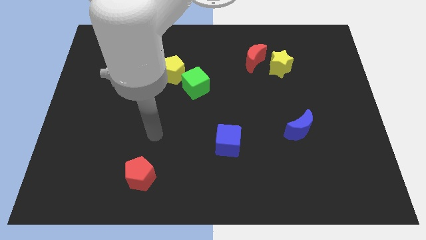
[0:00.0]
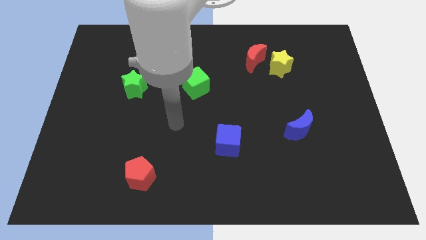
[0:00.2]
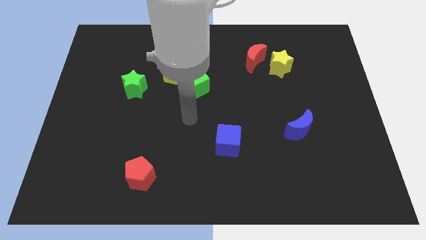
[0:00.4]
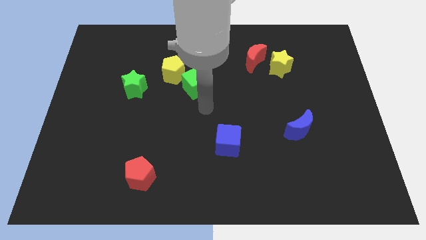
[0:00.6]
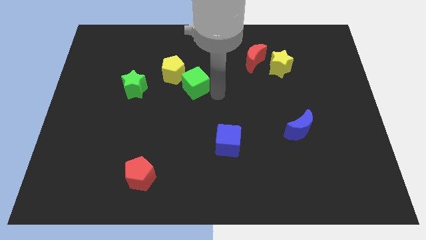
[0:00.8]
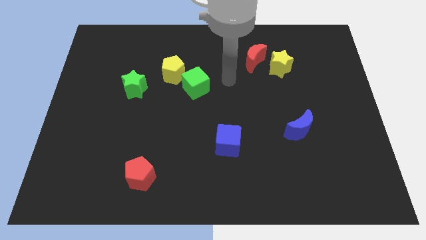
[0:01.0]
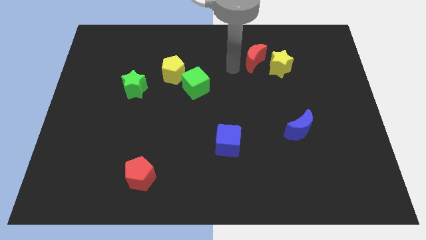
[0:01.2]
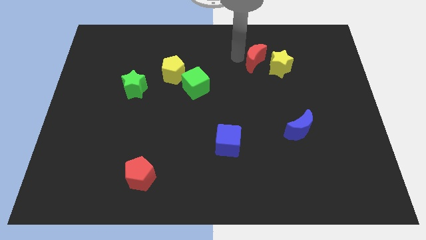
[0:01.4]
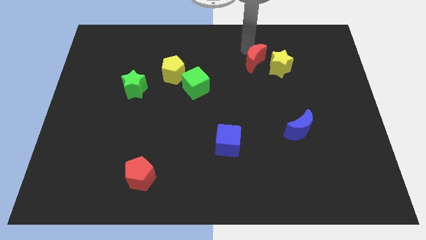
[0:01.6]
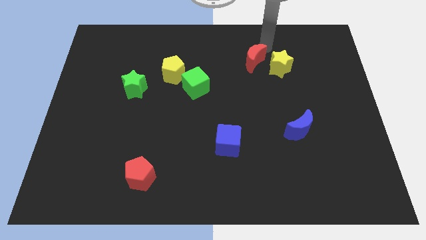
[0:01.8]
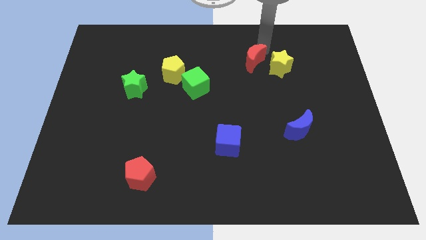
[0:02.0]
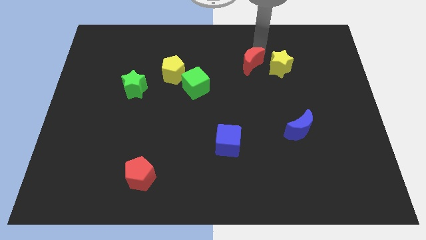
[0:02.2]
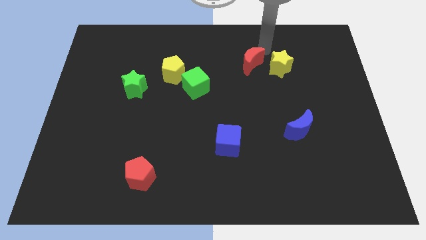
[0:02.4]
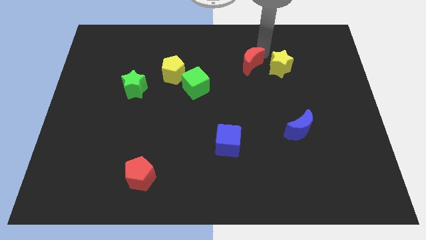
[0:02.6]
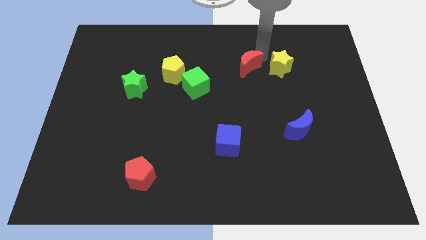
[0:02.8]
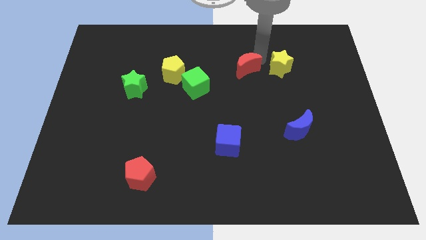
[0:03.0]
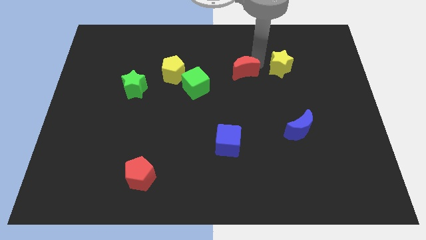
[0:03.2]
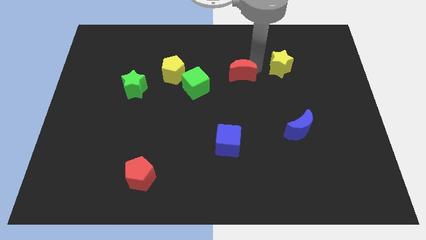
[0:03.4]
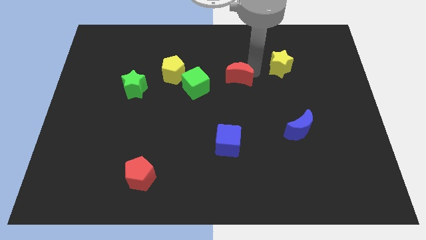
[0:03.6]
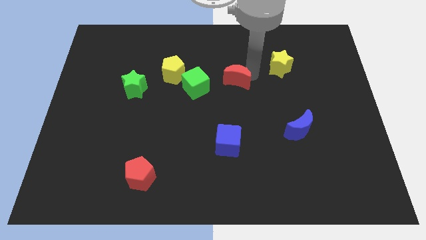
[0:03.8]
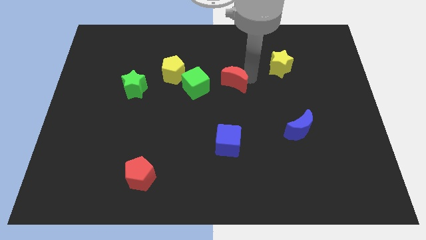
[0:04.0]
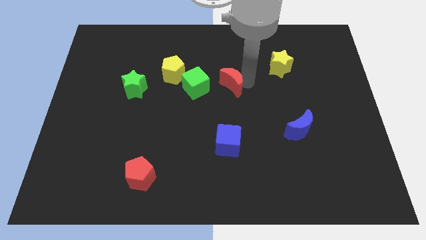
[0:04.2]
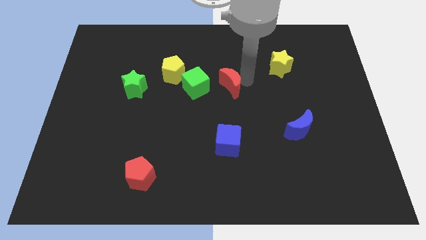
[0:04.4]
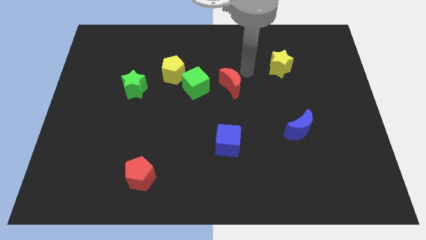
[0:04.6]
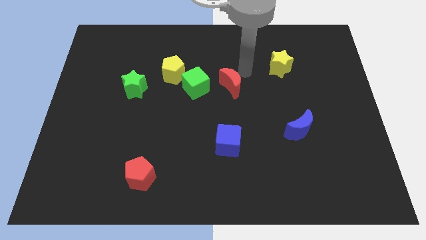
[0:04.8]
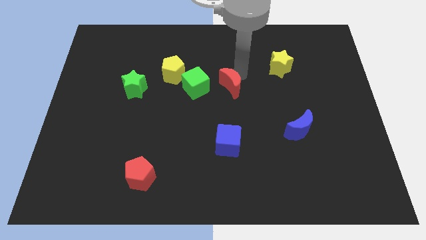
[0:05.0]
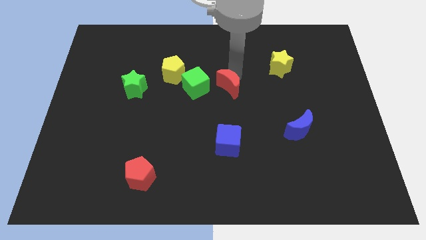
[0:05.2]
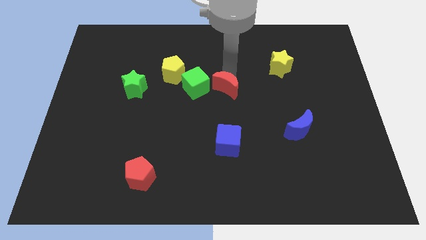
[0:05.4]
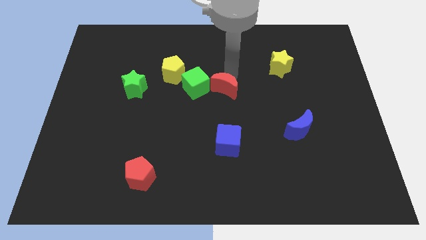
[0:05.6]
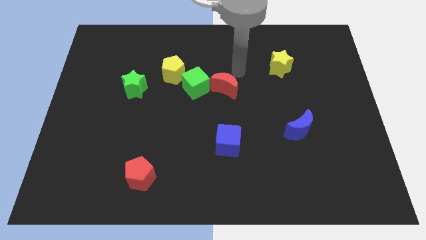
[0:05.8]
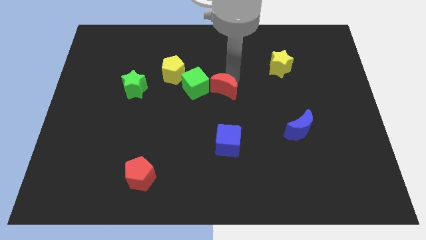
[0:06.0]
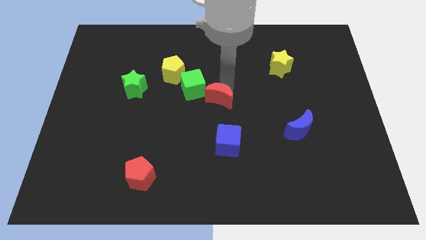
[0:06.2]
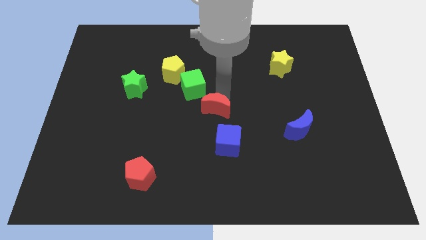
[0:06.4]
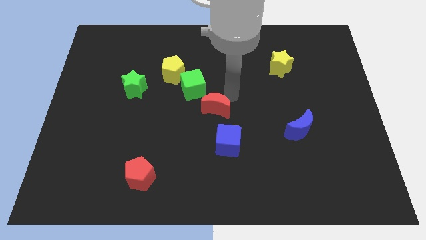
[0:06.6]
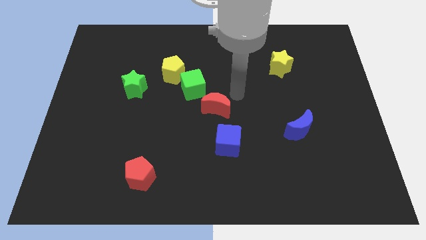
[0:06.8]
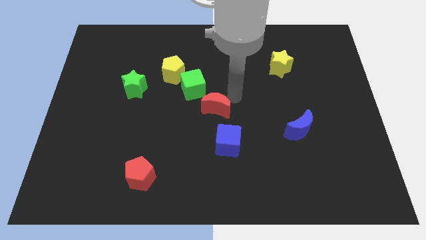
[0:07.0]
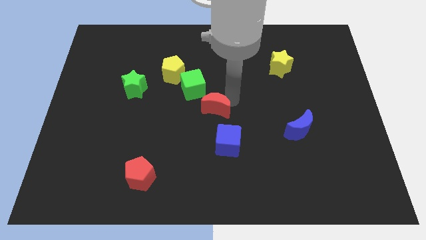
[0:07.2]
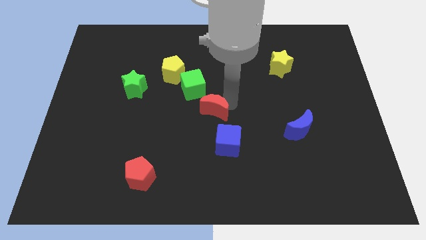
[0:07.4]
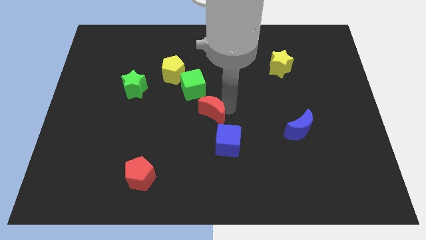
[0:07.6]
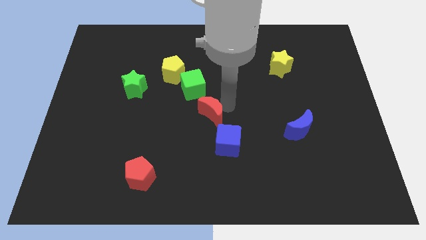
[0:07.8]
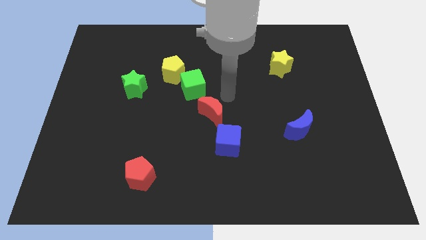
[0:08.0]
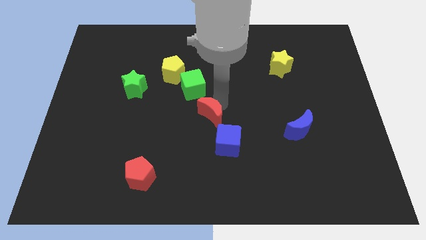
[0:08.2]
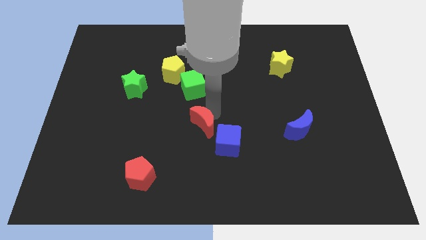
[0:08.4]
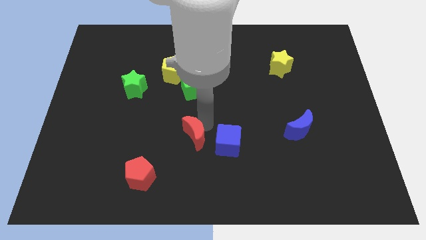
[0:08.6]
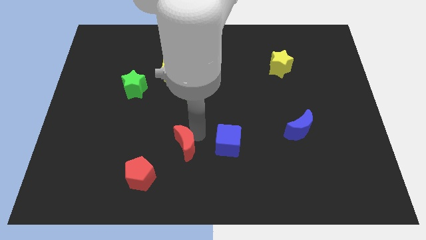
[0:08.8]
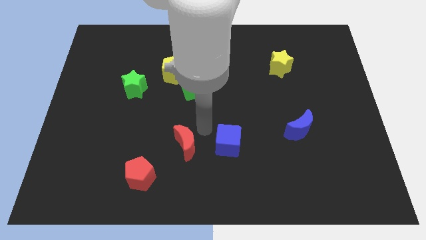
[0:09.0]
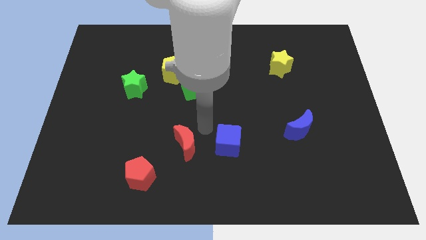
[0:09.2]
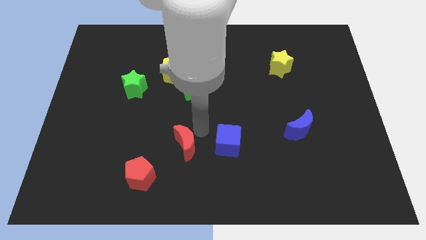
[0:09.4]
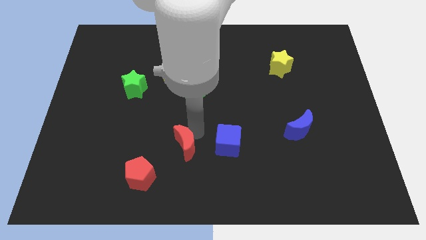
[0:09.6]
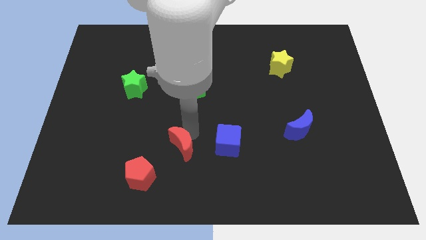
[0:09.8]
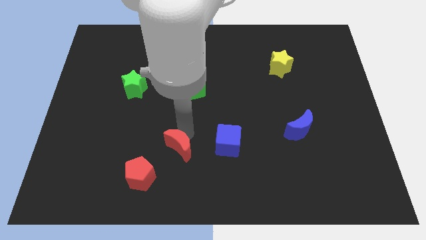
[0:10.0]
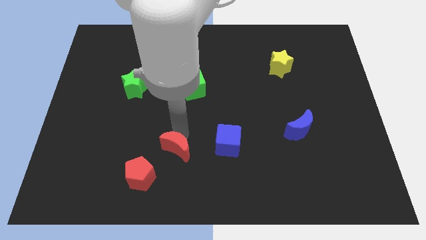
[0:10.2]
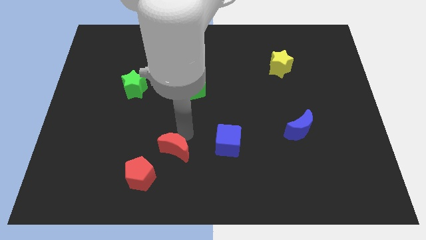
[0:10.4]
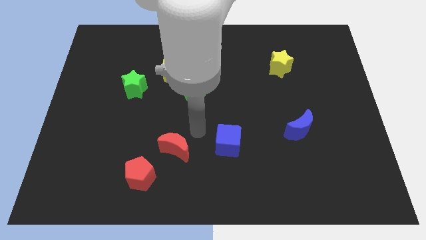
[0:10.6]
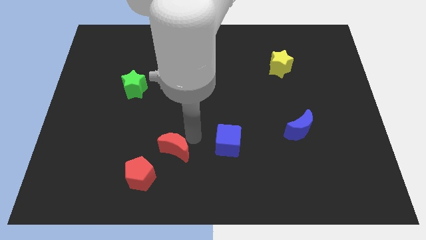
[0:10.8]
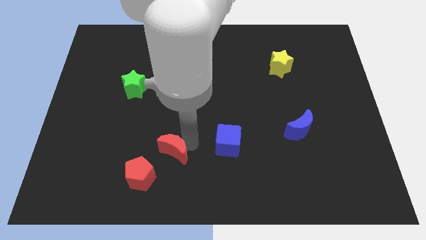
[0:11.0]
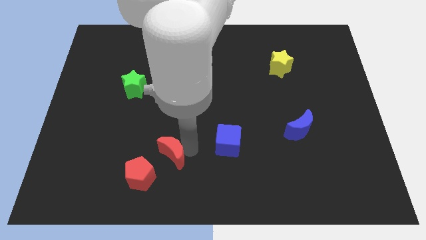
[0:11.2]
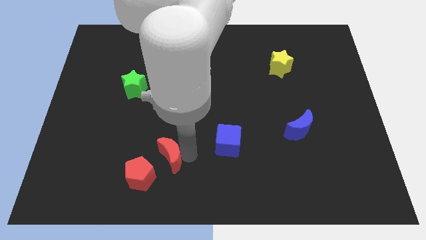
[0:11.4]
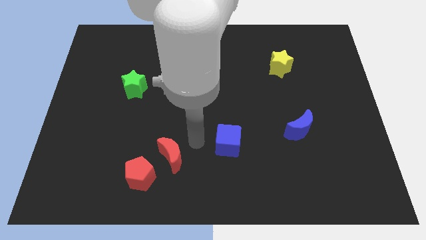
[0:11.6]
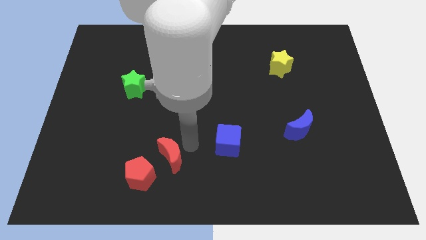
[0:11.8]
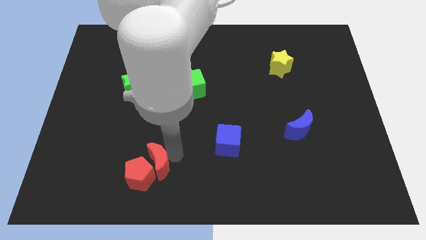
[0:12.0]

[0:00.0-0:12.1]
push the red moon towards the red pentagon
